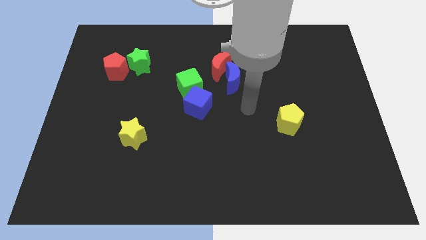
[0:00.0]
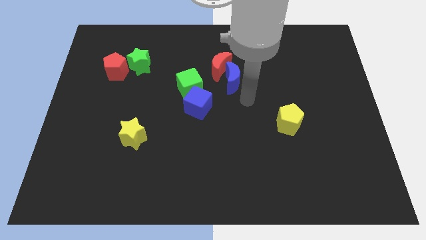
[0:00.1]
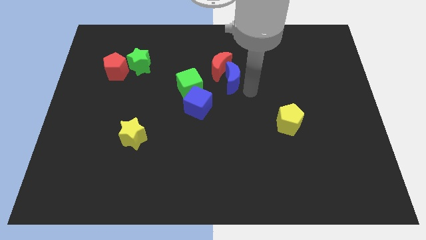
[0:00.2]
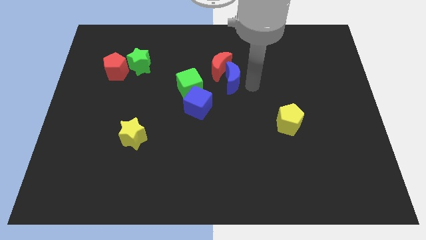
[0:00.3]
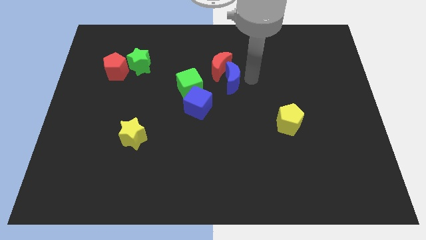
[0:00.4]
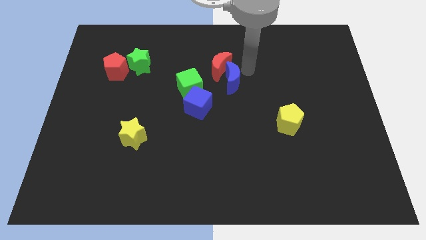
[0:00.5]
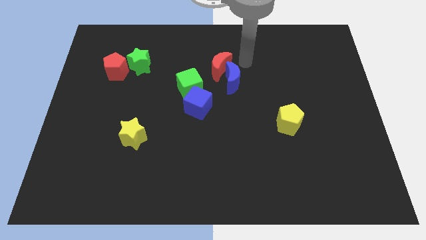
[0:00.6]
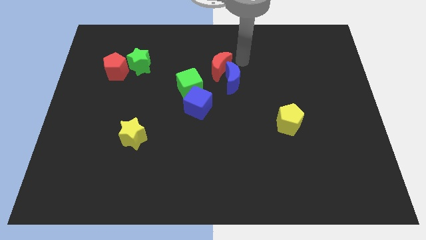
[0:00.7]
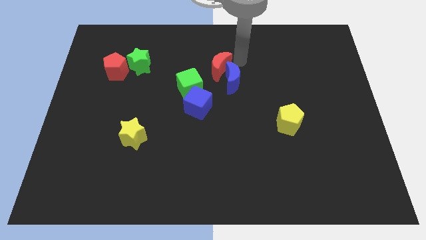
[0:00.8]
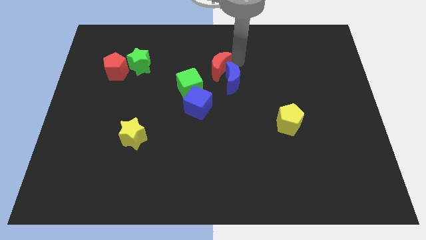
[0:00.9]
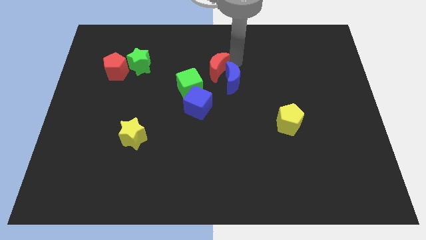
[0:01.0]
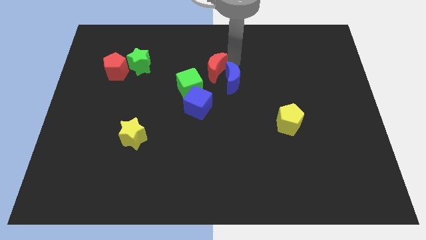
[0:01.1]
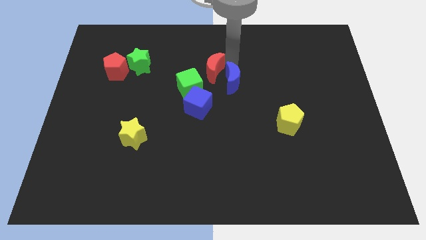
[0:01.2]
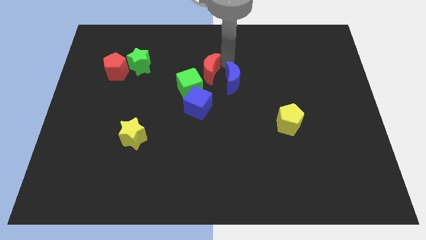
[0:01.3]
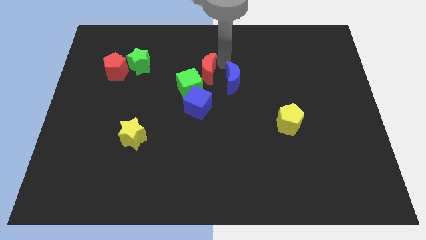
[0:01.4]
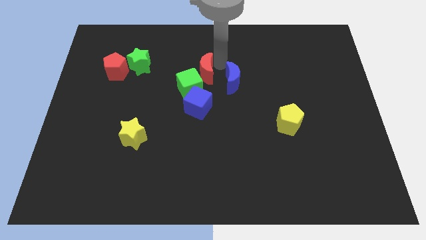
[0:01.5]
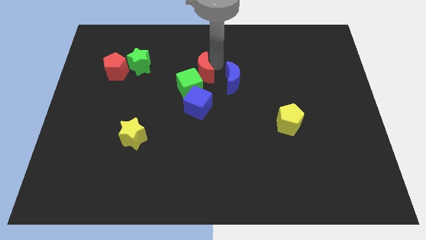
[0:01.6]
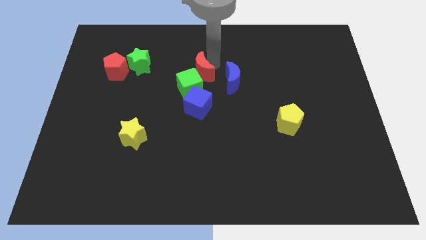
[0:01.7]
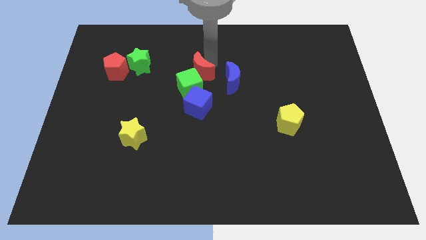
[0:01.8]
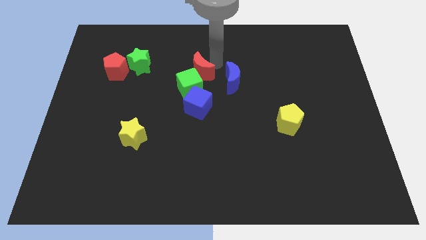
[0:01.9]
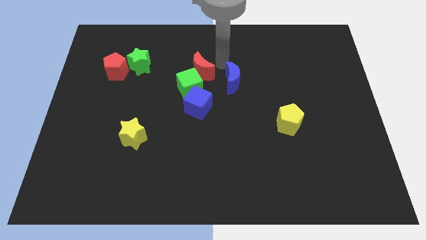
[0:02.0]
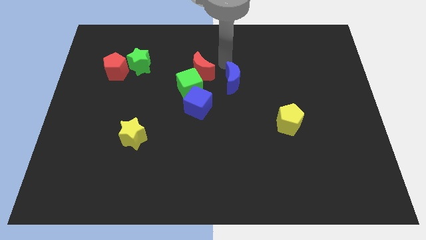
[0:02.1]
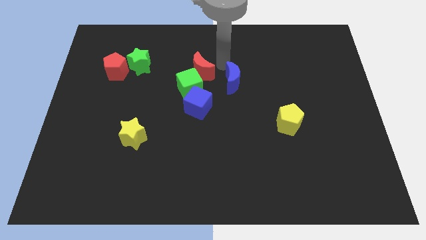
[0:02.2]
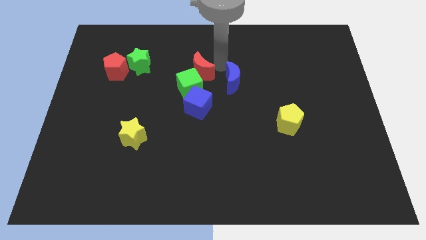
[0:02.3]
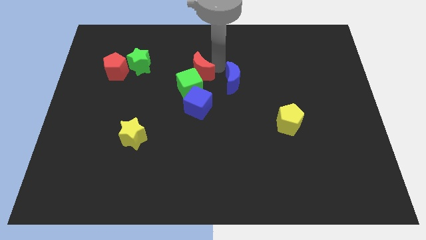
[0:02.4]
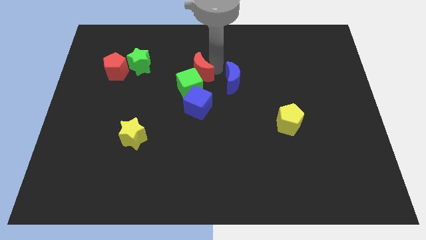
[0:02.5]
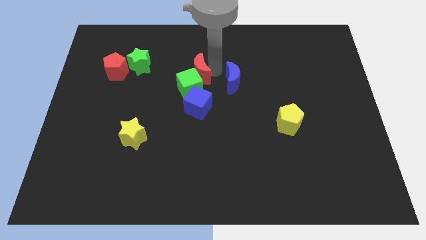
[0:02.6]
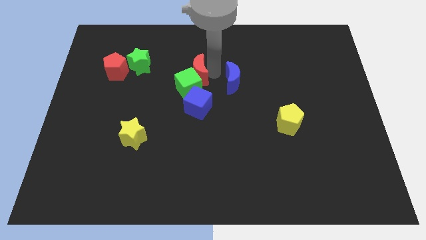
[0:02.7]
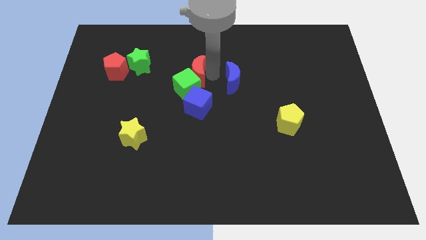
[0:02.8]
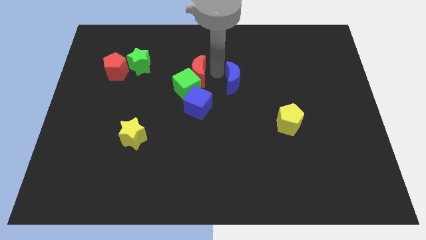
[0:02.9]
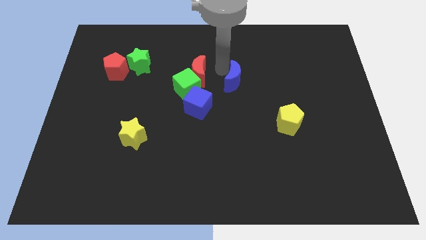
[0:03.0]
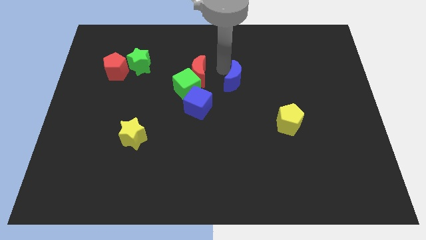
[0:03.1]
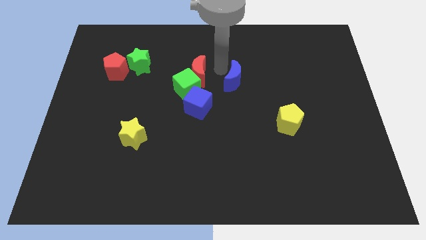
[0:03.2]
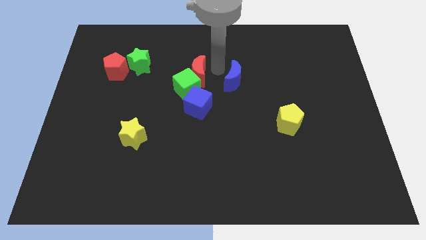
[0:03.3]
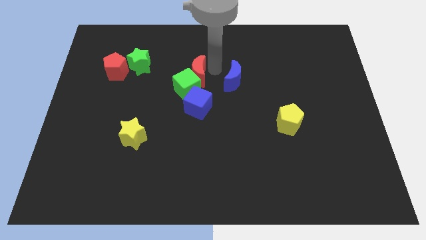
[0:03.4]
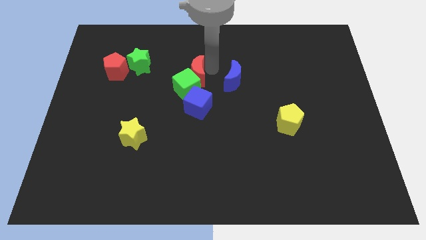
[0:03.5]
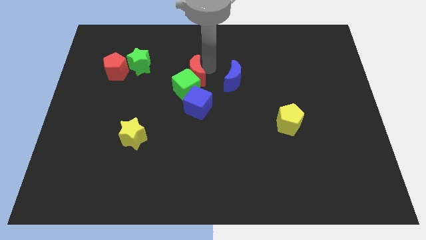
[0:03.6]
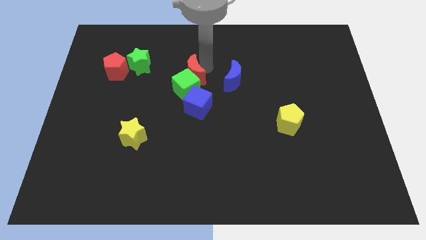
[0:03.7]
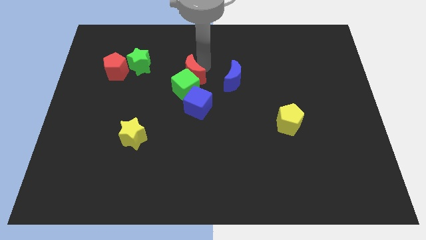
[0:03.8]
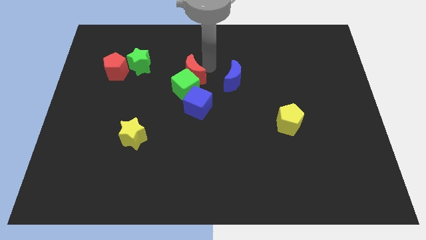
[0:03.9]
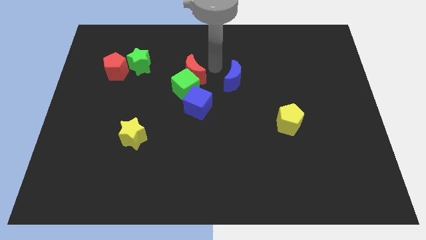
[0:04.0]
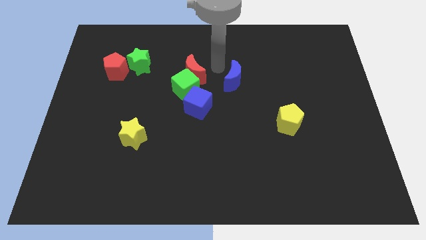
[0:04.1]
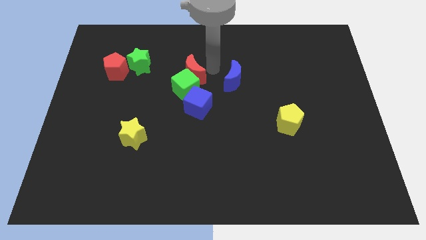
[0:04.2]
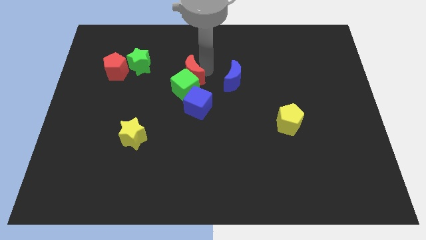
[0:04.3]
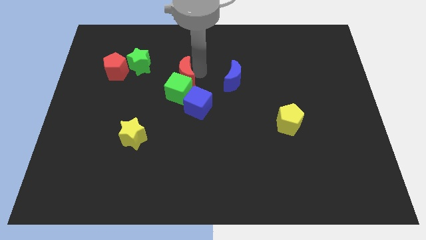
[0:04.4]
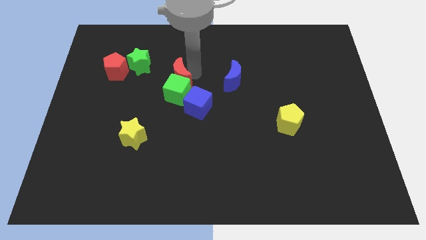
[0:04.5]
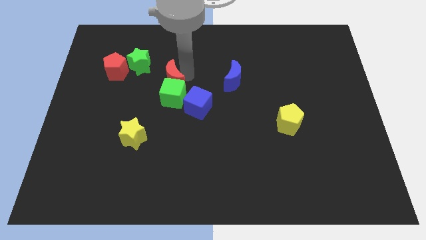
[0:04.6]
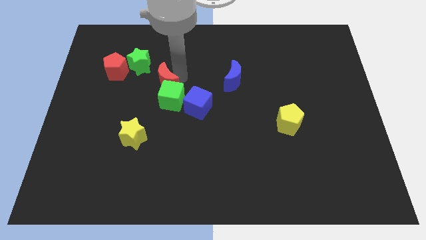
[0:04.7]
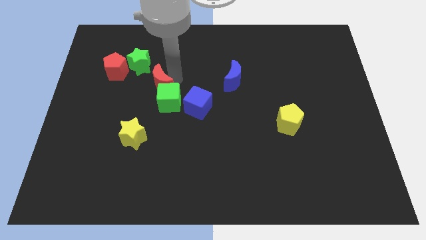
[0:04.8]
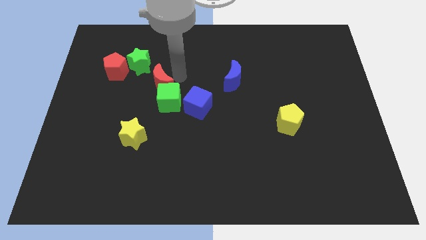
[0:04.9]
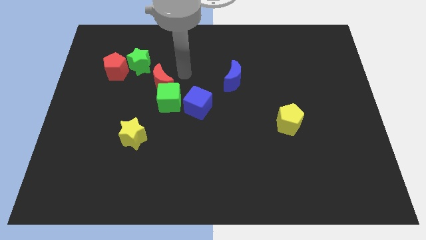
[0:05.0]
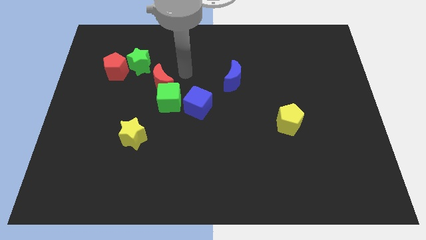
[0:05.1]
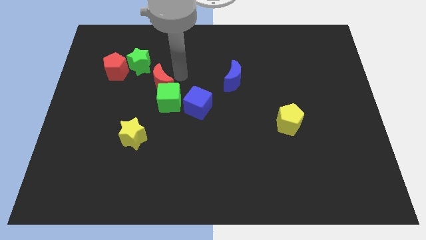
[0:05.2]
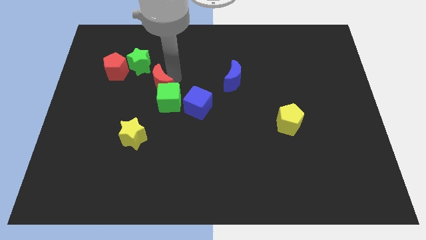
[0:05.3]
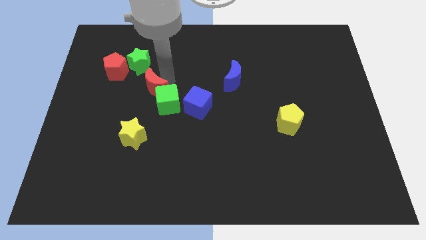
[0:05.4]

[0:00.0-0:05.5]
push the red moon to the bottom side of the green star

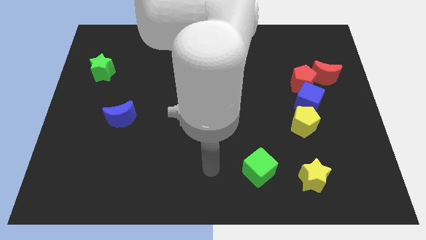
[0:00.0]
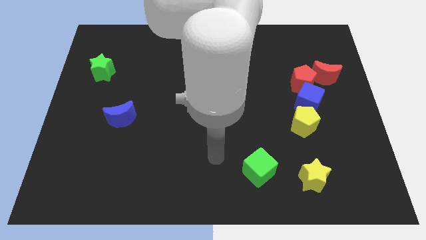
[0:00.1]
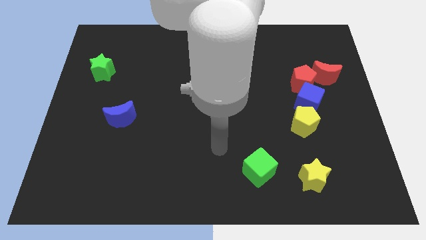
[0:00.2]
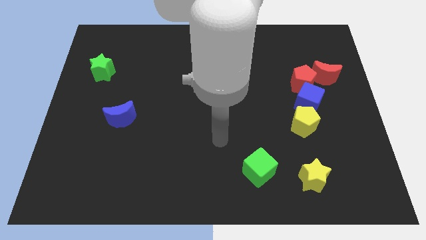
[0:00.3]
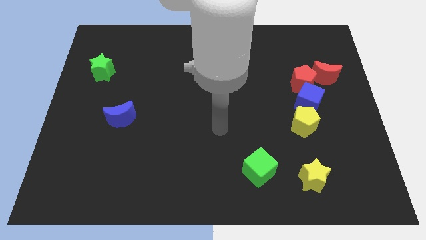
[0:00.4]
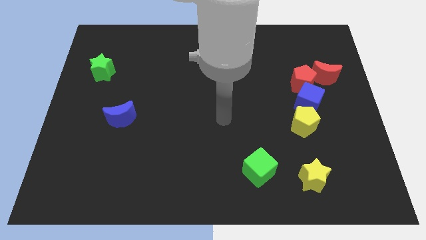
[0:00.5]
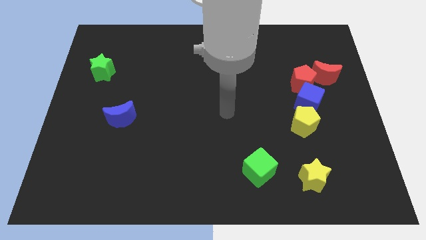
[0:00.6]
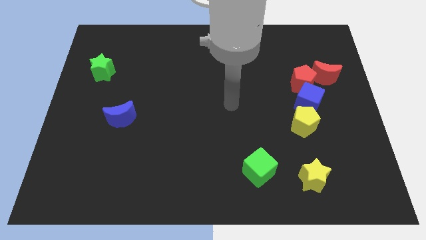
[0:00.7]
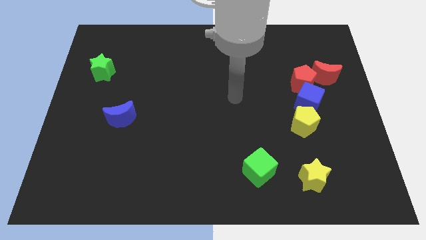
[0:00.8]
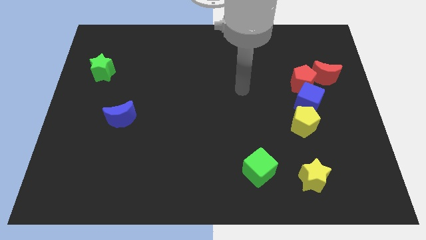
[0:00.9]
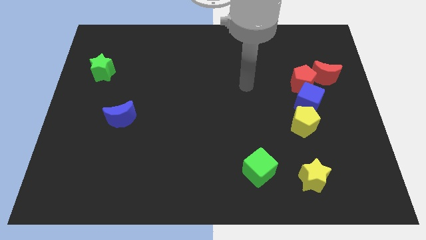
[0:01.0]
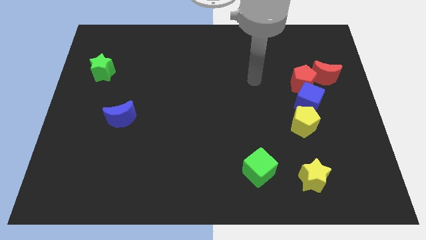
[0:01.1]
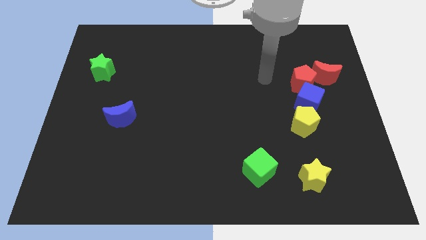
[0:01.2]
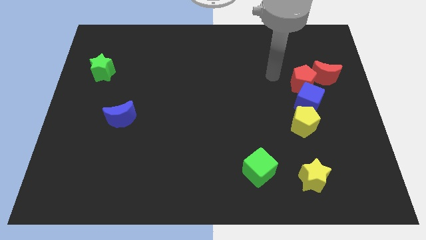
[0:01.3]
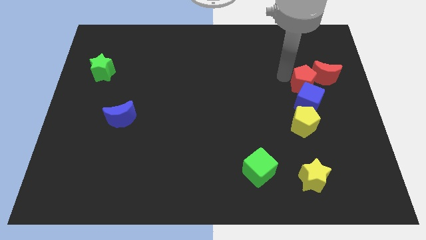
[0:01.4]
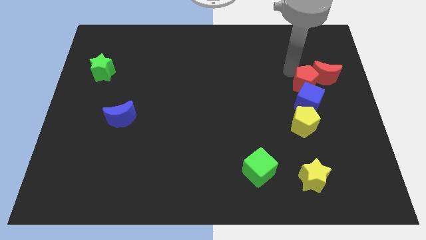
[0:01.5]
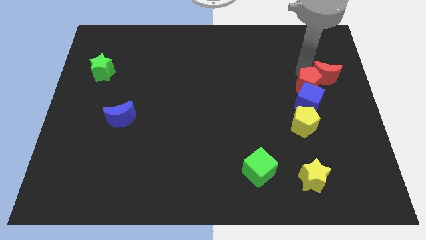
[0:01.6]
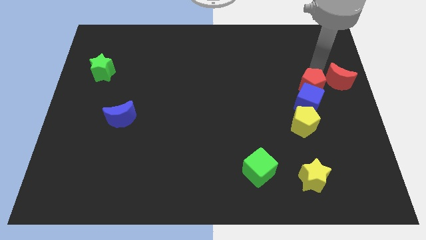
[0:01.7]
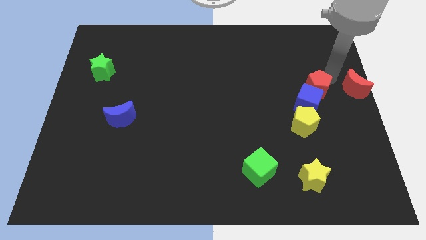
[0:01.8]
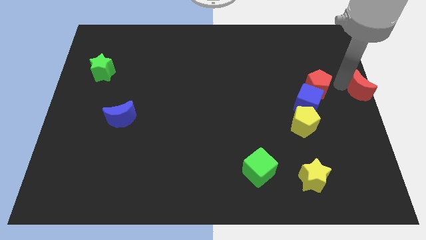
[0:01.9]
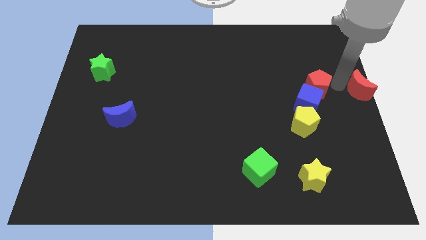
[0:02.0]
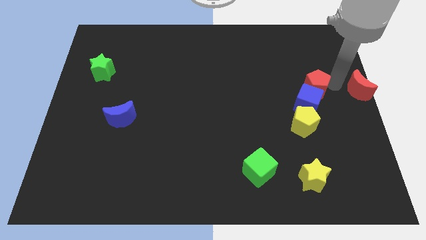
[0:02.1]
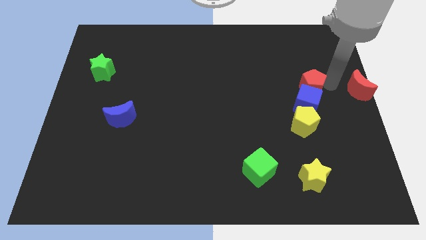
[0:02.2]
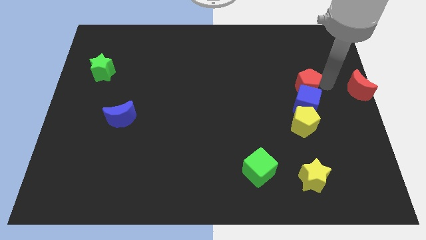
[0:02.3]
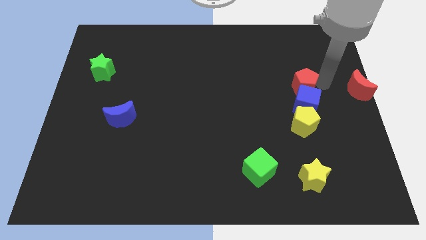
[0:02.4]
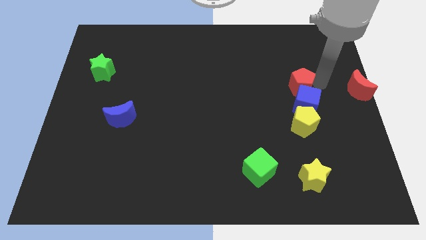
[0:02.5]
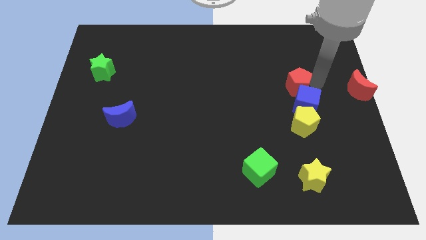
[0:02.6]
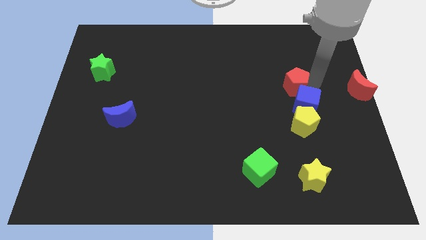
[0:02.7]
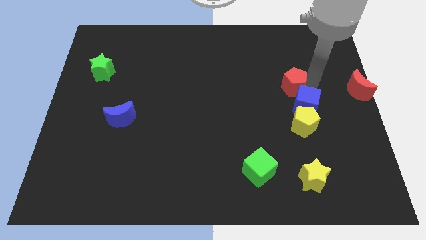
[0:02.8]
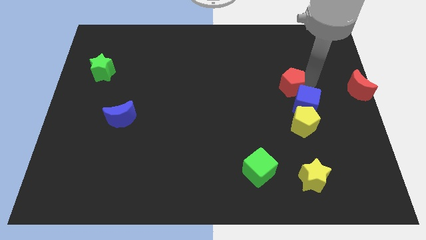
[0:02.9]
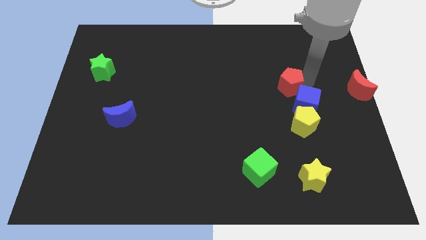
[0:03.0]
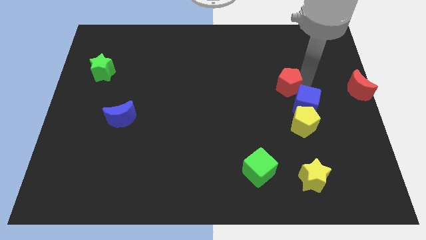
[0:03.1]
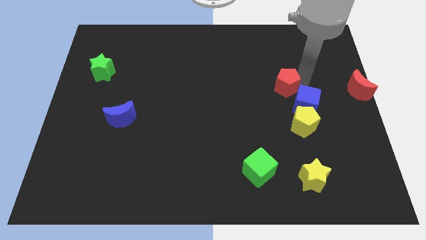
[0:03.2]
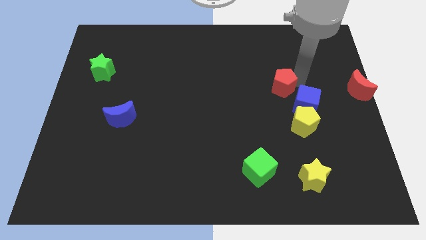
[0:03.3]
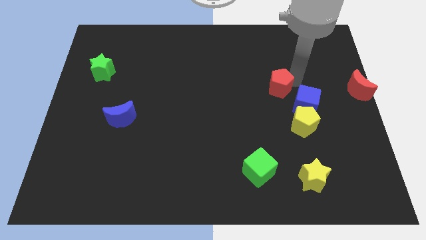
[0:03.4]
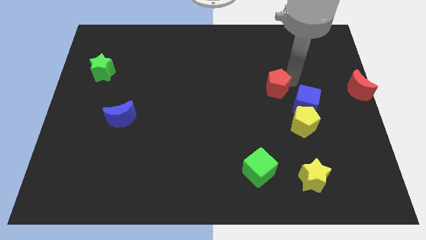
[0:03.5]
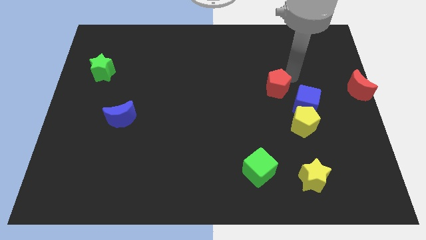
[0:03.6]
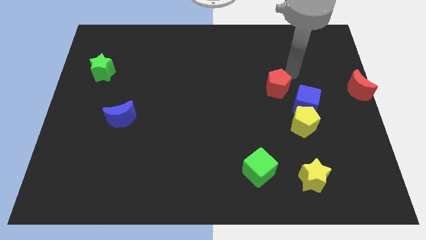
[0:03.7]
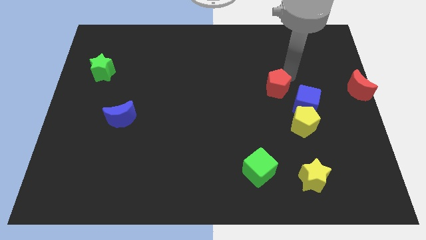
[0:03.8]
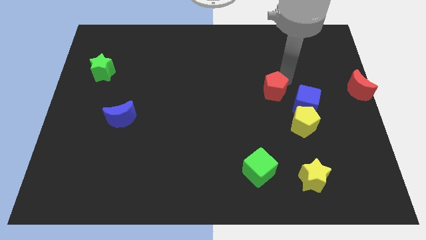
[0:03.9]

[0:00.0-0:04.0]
slide the red pentagon to the left of the blue cube
